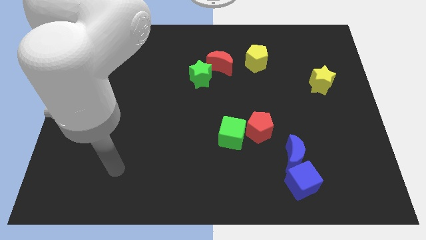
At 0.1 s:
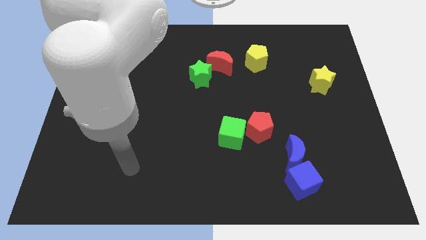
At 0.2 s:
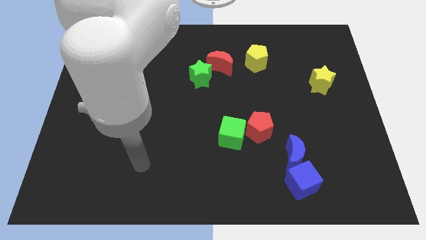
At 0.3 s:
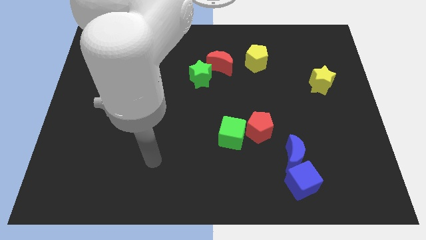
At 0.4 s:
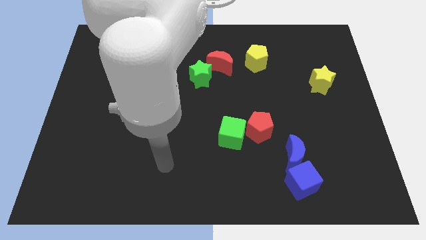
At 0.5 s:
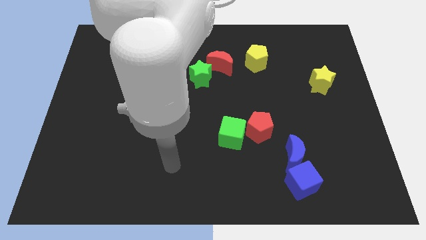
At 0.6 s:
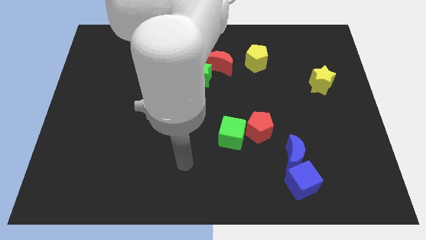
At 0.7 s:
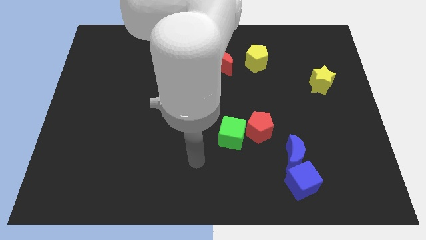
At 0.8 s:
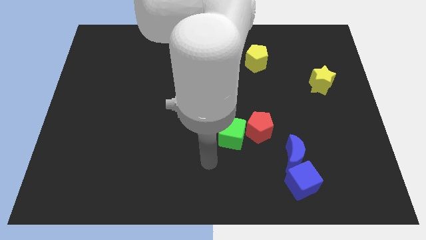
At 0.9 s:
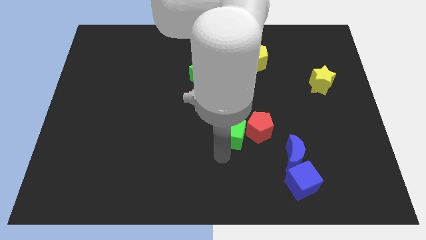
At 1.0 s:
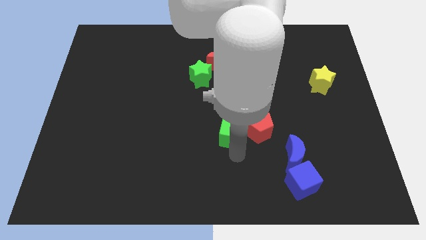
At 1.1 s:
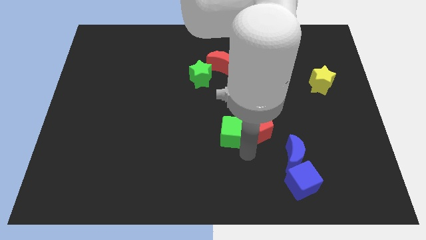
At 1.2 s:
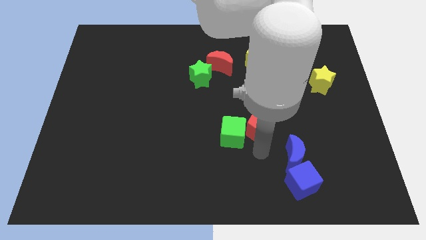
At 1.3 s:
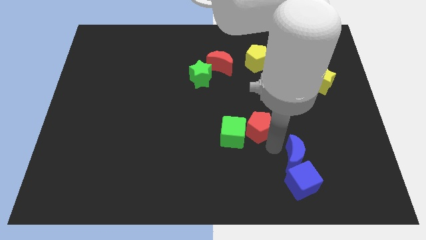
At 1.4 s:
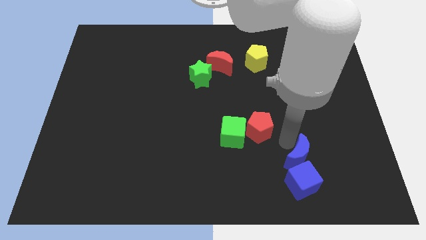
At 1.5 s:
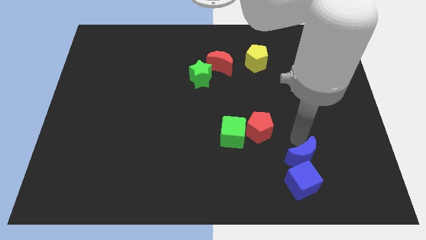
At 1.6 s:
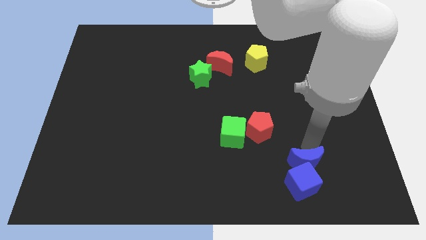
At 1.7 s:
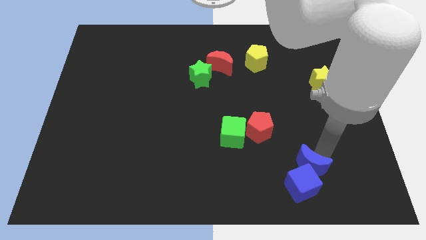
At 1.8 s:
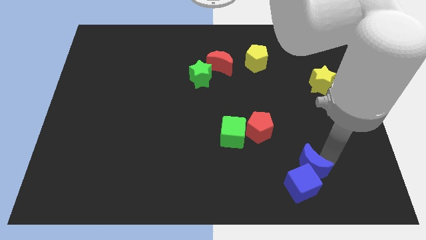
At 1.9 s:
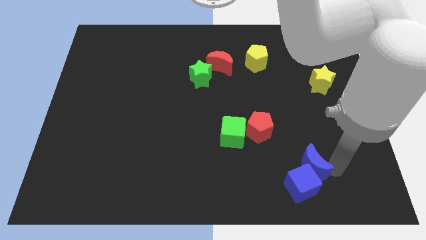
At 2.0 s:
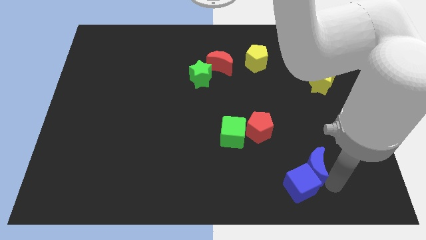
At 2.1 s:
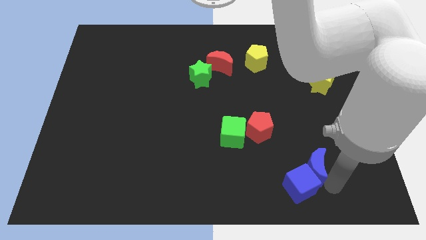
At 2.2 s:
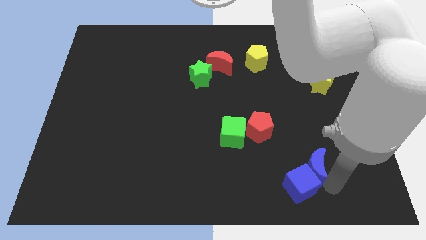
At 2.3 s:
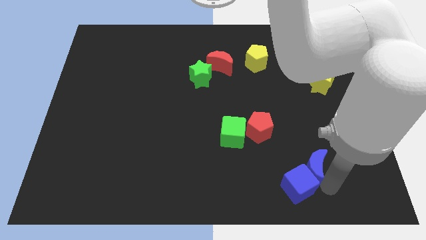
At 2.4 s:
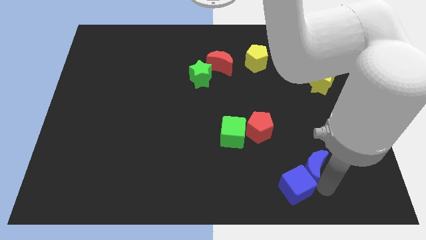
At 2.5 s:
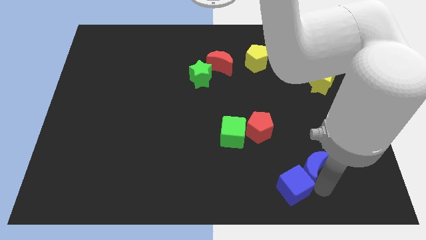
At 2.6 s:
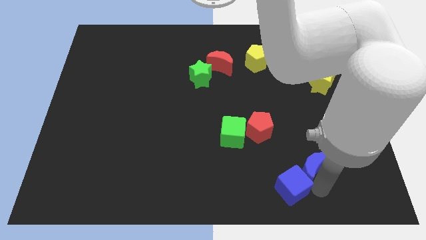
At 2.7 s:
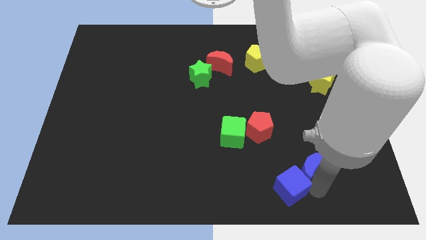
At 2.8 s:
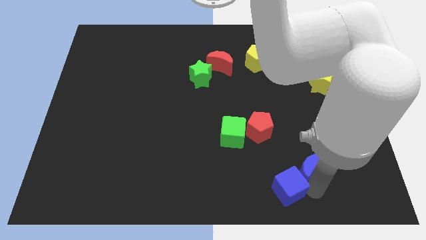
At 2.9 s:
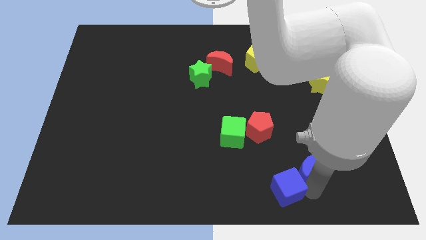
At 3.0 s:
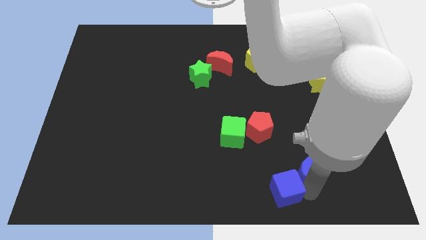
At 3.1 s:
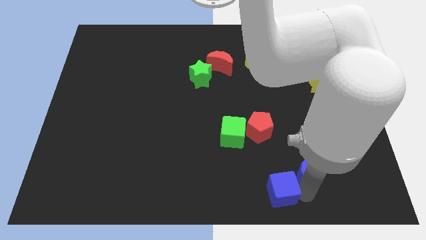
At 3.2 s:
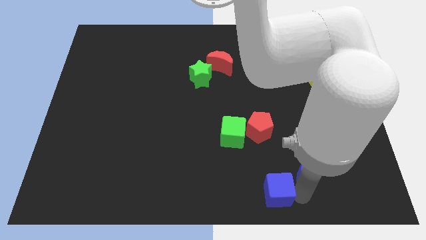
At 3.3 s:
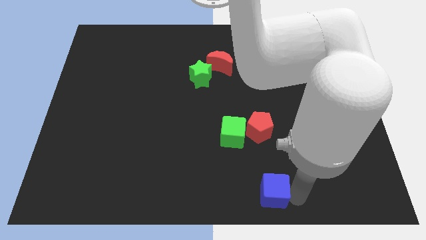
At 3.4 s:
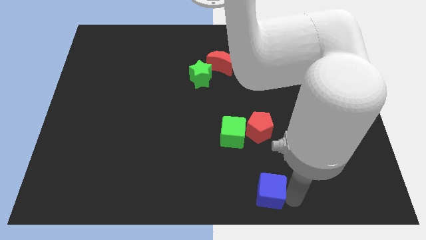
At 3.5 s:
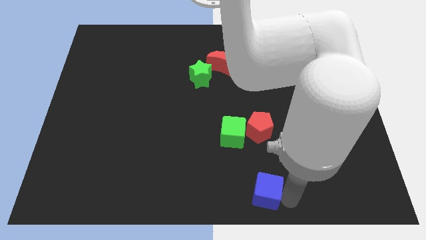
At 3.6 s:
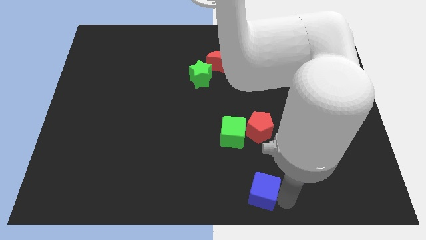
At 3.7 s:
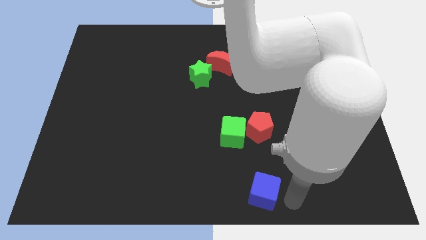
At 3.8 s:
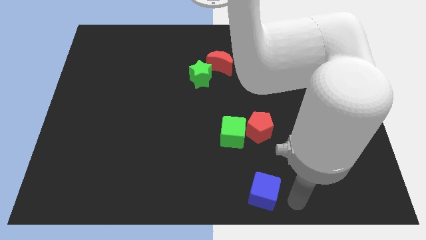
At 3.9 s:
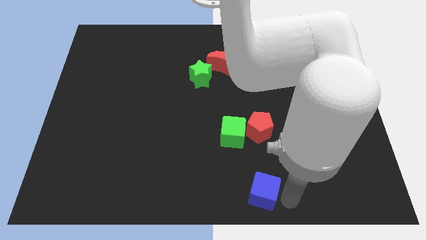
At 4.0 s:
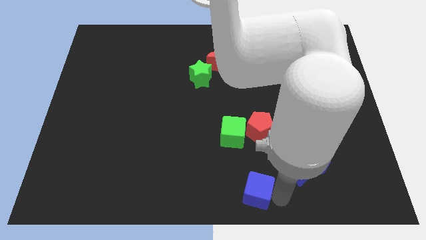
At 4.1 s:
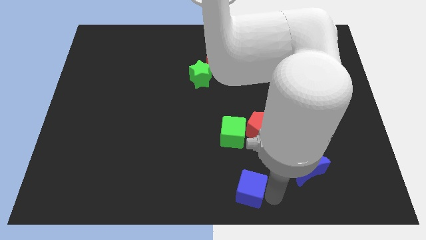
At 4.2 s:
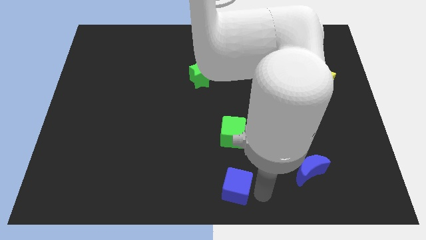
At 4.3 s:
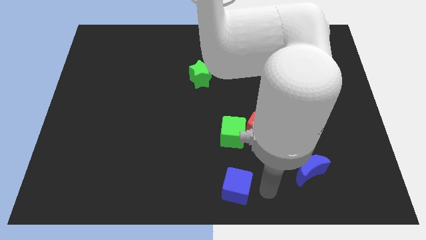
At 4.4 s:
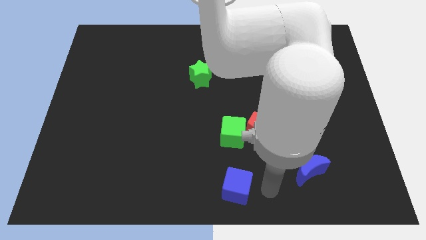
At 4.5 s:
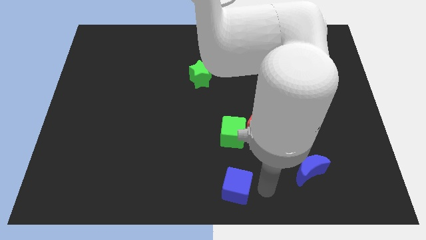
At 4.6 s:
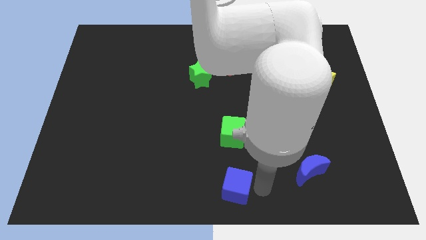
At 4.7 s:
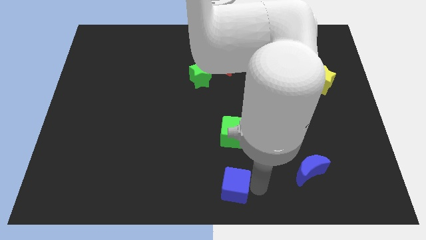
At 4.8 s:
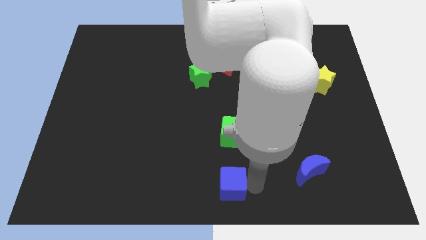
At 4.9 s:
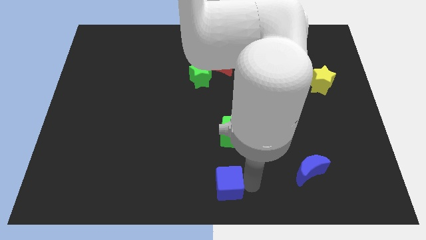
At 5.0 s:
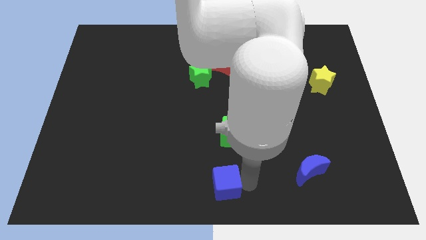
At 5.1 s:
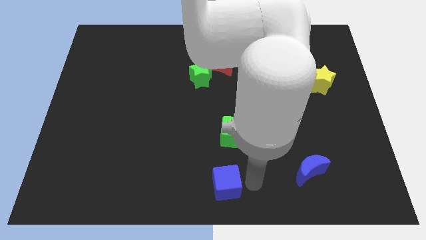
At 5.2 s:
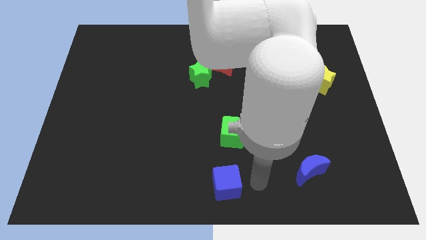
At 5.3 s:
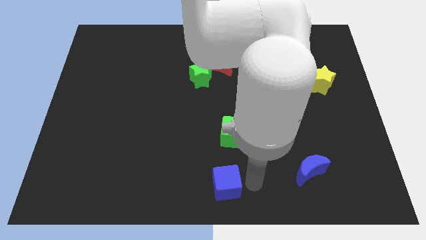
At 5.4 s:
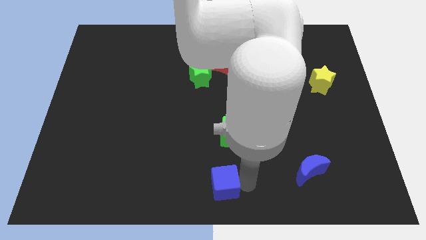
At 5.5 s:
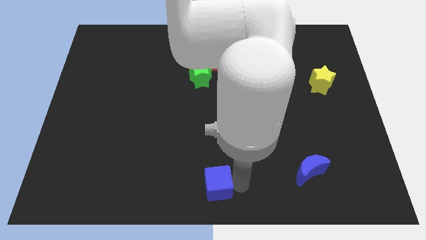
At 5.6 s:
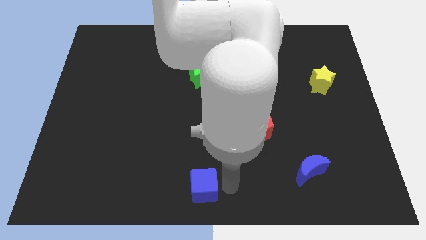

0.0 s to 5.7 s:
push the blue cube left

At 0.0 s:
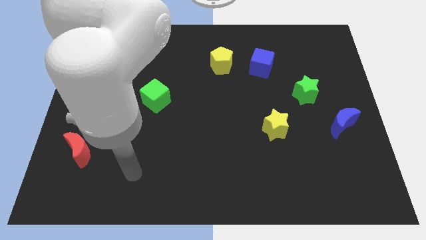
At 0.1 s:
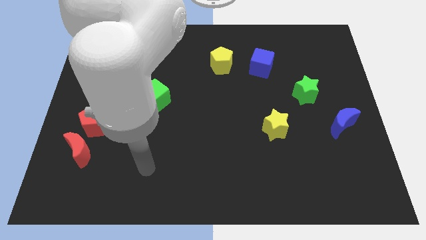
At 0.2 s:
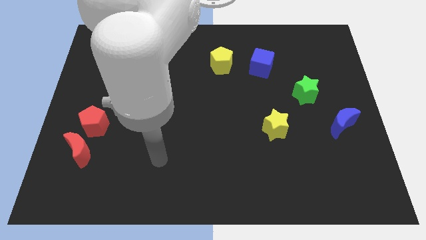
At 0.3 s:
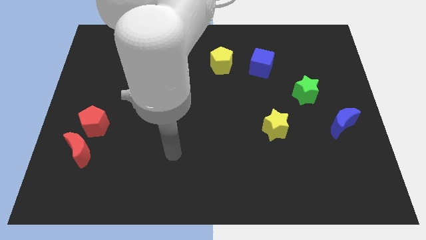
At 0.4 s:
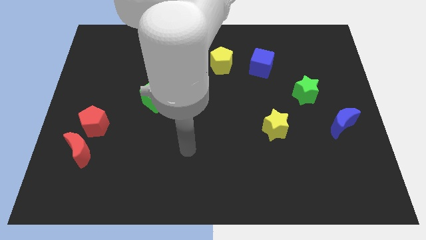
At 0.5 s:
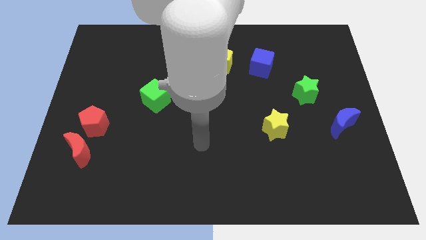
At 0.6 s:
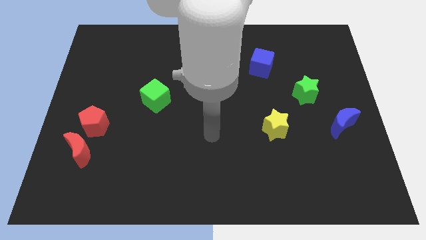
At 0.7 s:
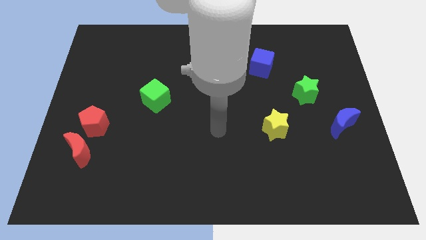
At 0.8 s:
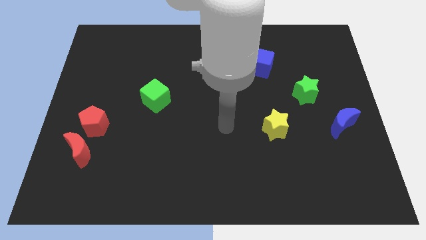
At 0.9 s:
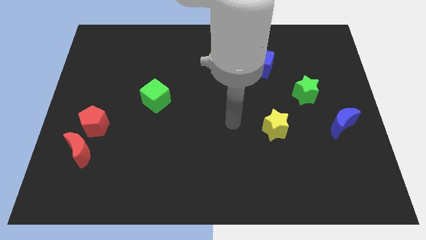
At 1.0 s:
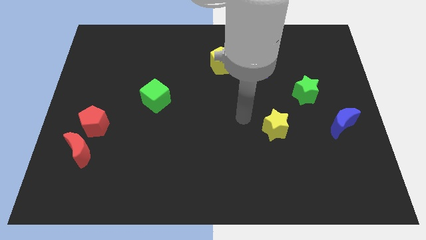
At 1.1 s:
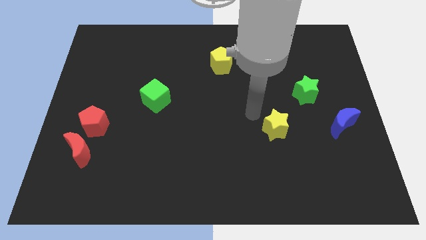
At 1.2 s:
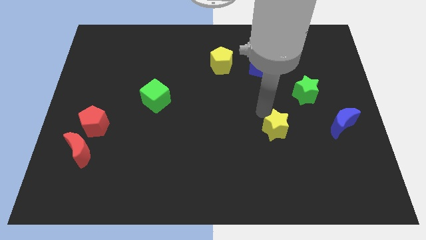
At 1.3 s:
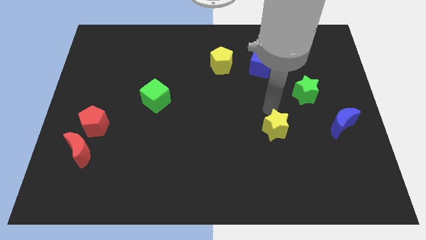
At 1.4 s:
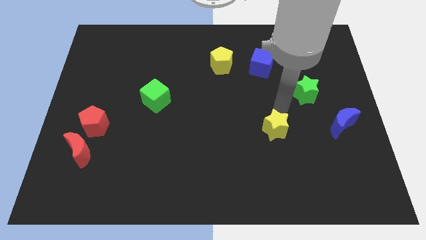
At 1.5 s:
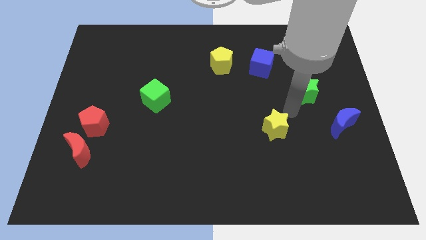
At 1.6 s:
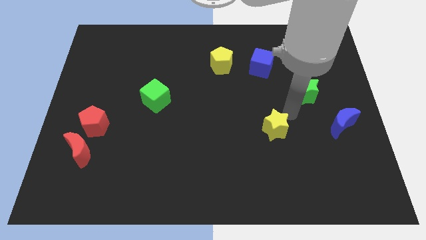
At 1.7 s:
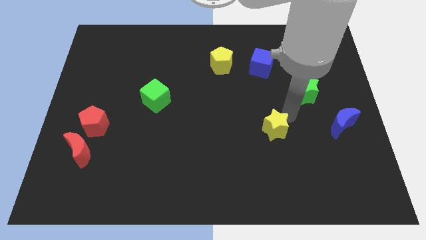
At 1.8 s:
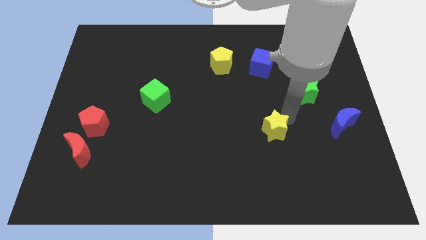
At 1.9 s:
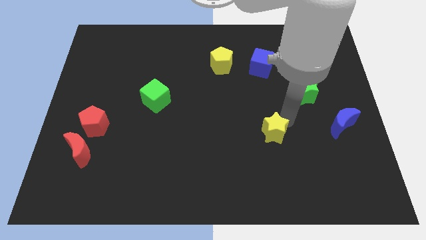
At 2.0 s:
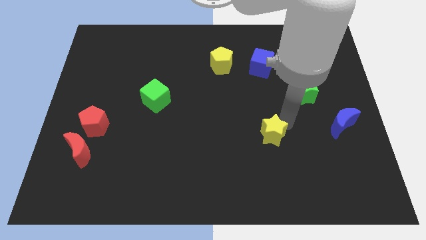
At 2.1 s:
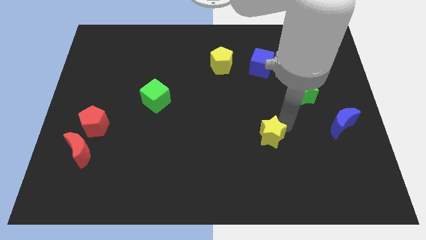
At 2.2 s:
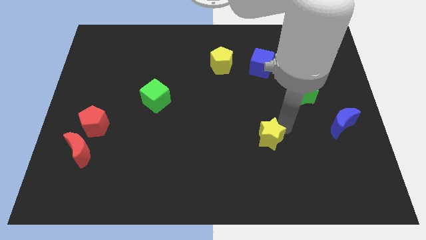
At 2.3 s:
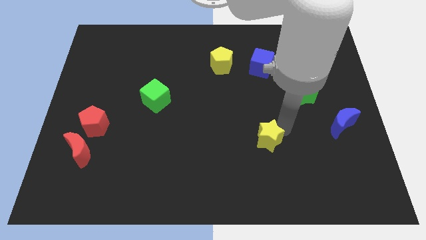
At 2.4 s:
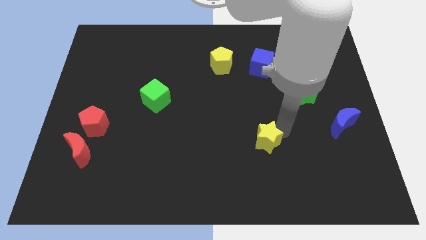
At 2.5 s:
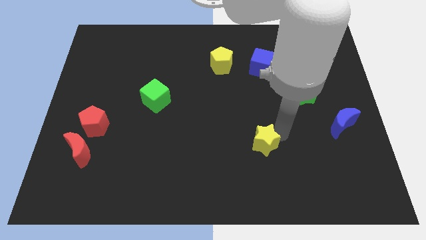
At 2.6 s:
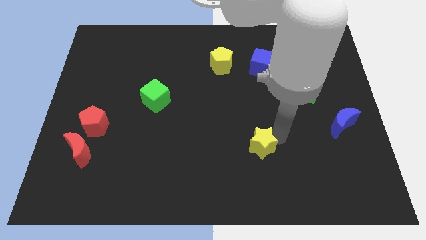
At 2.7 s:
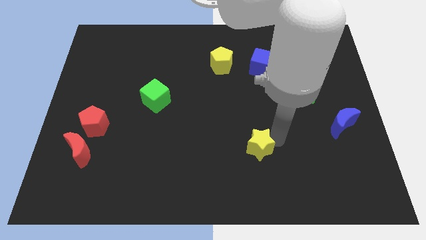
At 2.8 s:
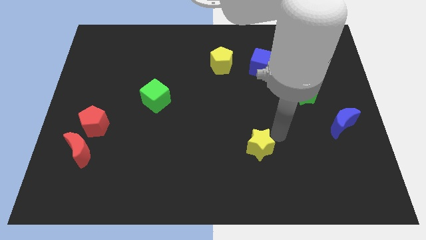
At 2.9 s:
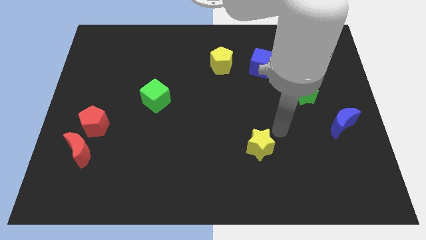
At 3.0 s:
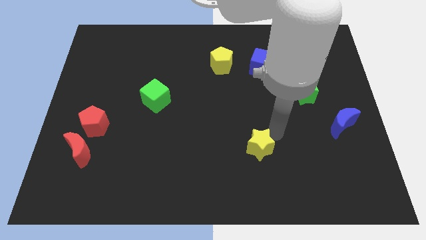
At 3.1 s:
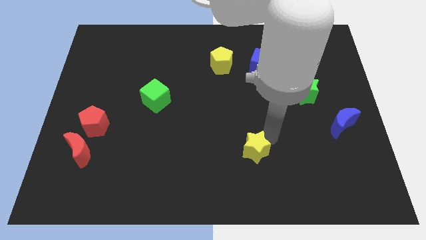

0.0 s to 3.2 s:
move the yellow star diagonally down and to the left a bit
